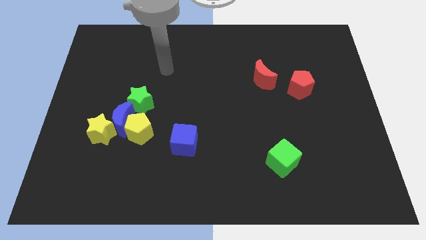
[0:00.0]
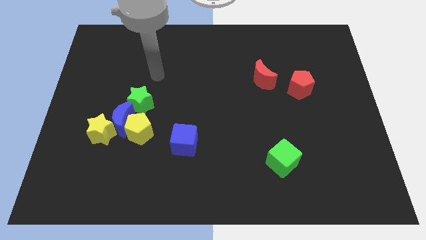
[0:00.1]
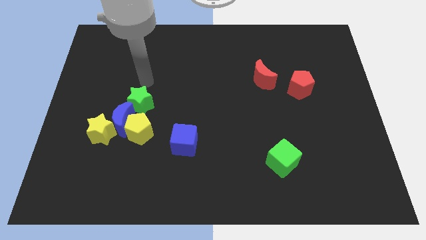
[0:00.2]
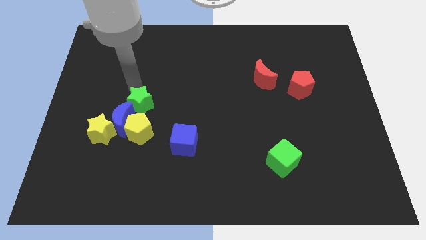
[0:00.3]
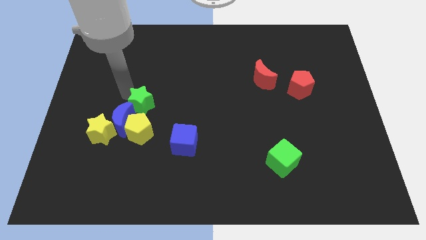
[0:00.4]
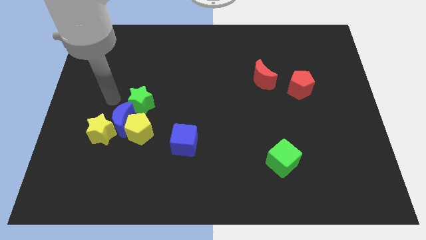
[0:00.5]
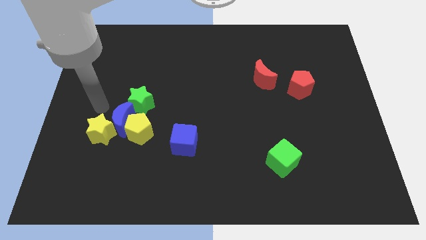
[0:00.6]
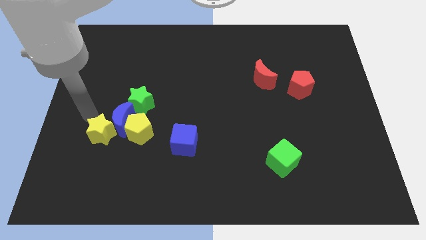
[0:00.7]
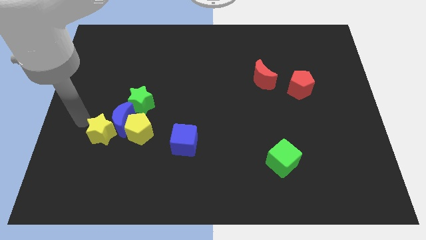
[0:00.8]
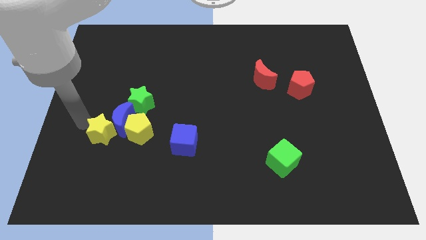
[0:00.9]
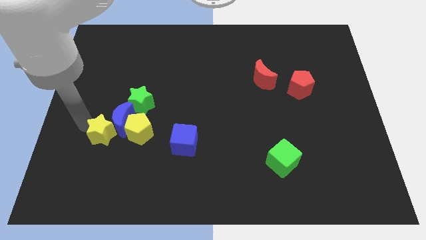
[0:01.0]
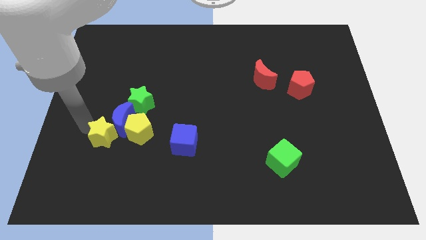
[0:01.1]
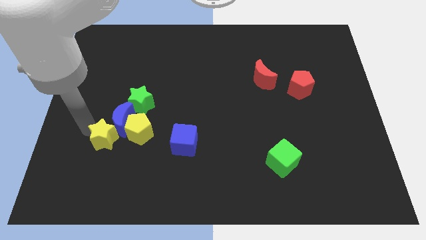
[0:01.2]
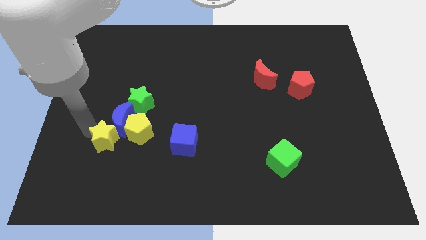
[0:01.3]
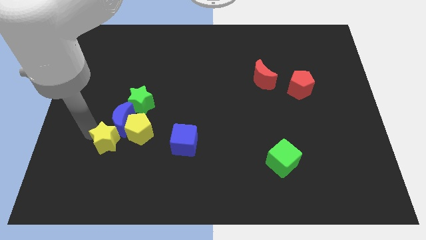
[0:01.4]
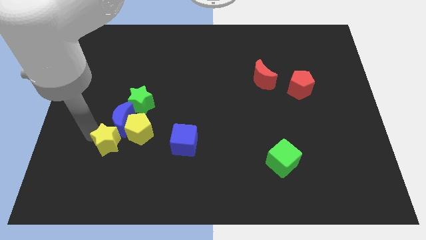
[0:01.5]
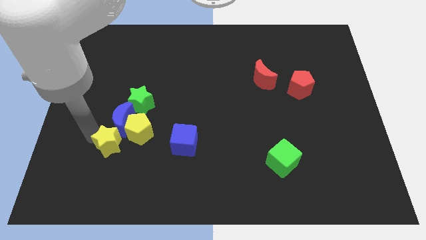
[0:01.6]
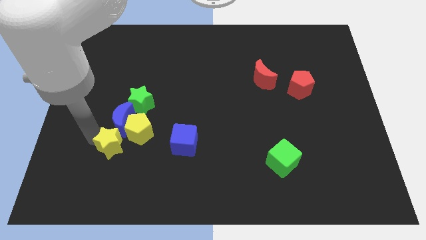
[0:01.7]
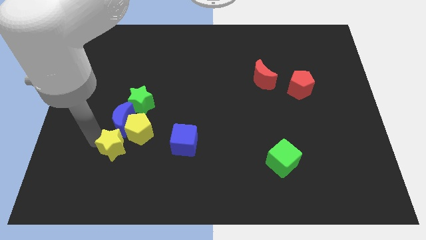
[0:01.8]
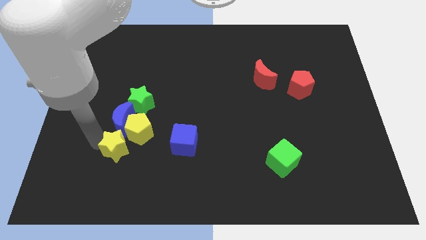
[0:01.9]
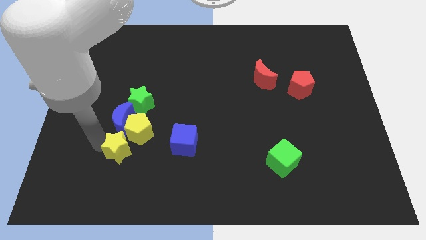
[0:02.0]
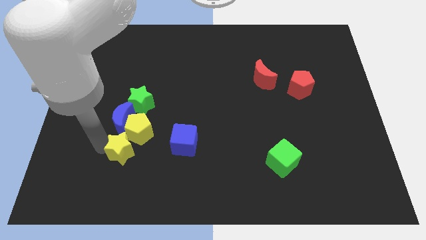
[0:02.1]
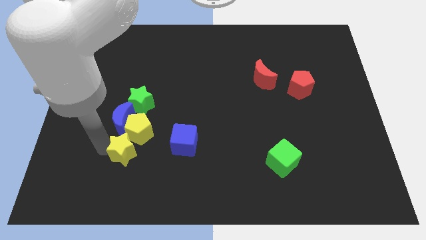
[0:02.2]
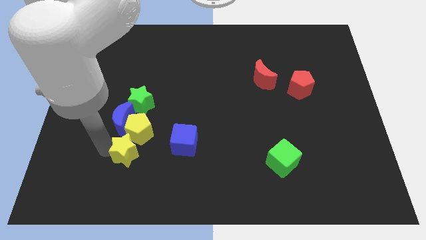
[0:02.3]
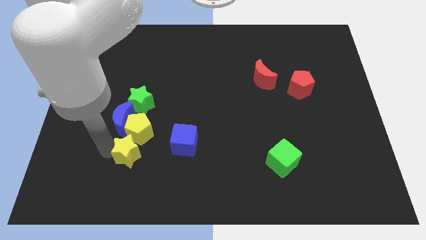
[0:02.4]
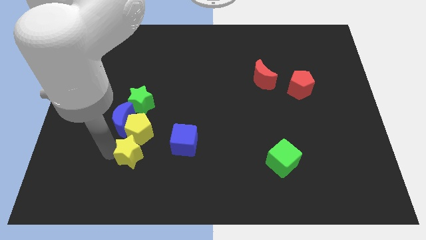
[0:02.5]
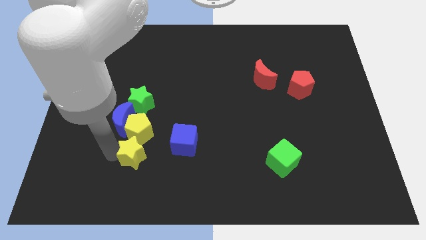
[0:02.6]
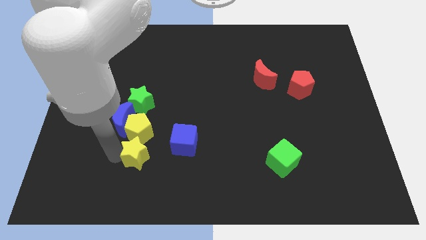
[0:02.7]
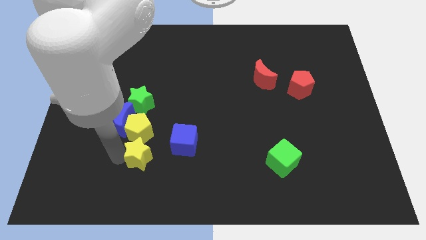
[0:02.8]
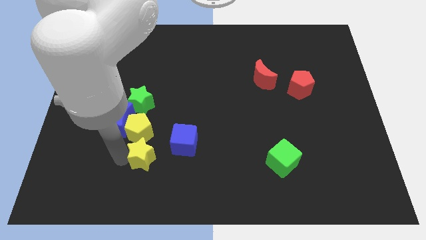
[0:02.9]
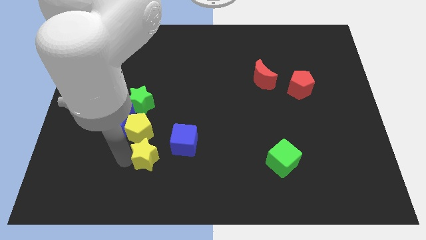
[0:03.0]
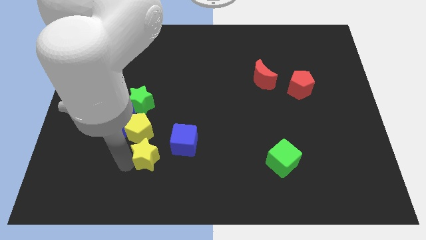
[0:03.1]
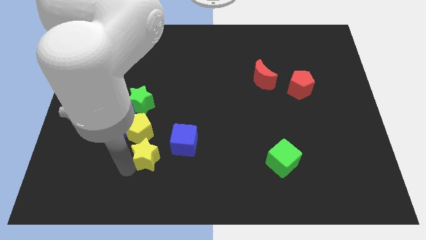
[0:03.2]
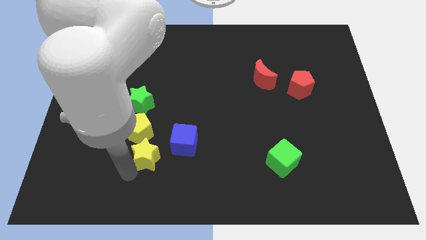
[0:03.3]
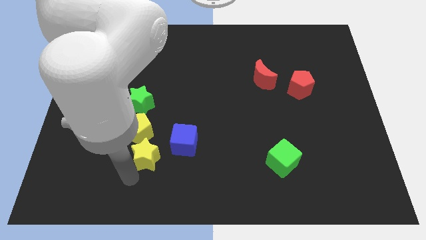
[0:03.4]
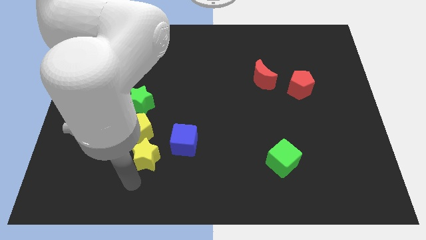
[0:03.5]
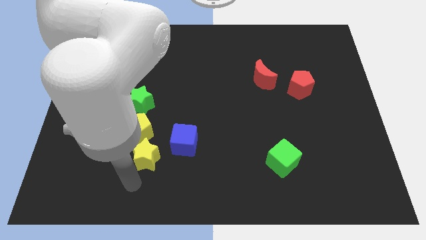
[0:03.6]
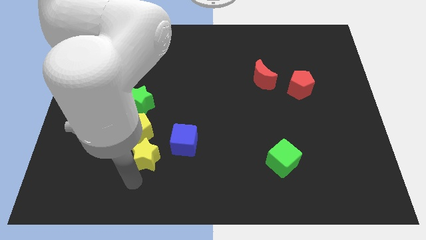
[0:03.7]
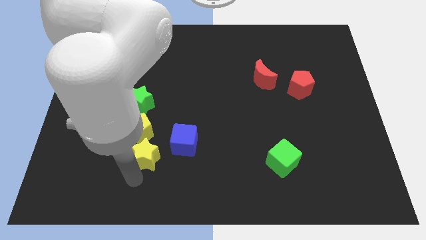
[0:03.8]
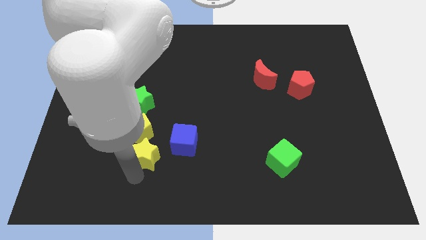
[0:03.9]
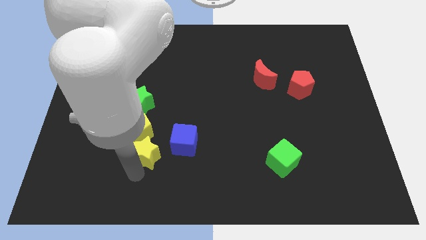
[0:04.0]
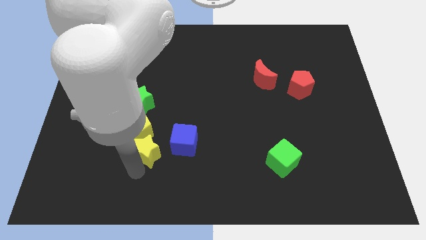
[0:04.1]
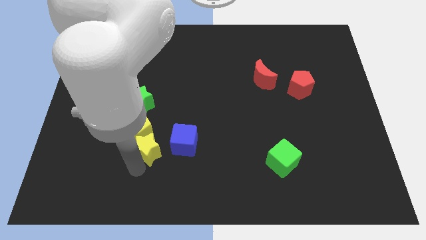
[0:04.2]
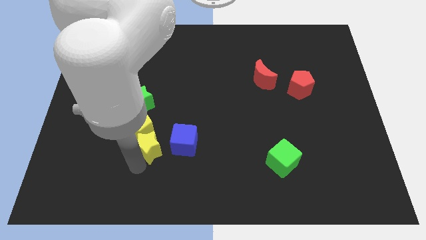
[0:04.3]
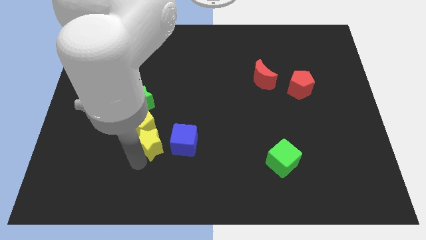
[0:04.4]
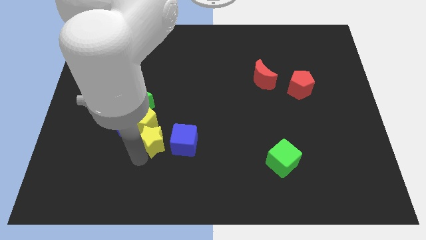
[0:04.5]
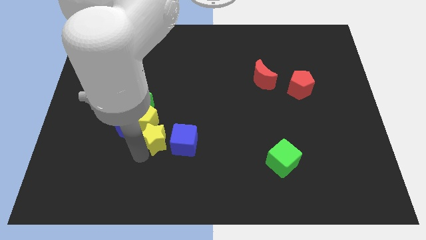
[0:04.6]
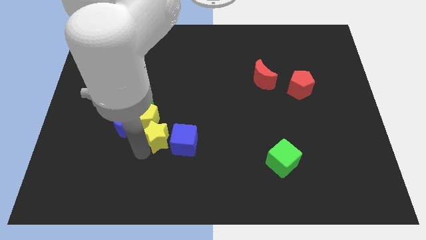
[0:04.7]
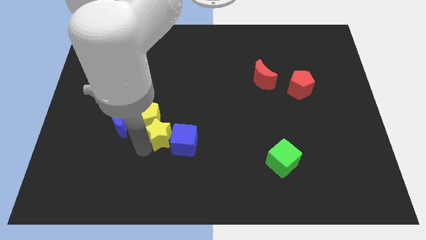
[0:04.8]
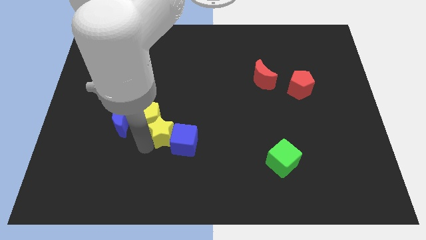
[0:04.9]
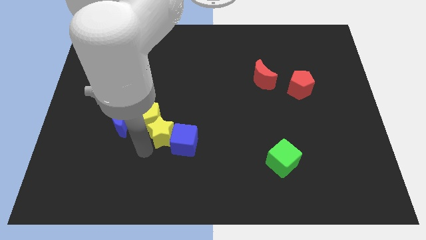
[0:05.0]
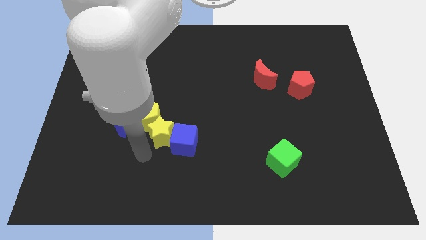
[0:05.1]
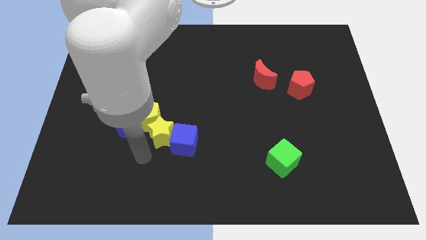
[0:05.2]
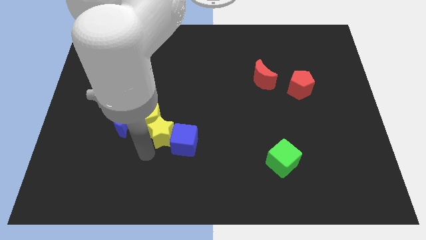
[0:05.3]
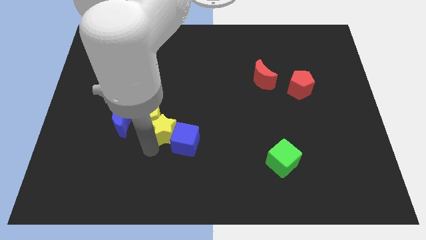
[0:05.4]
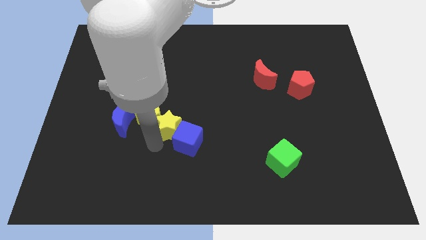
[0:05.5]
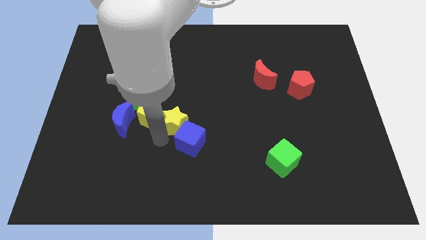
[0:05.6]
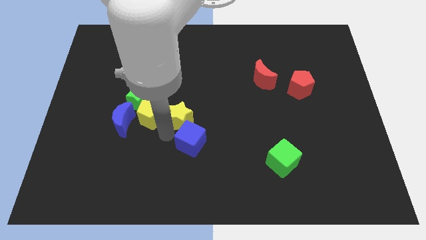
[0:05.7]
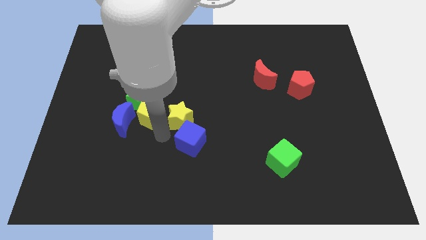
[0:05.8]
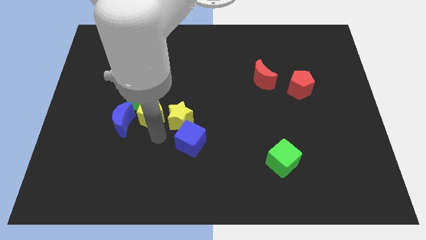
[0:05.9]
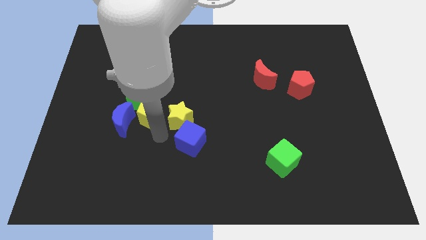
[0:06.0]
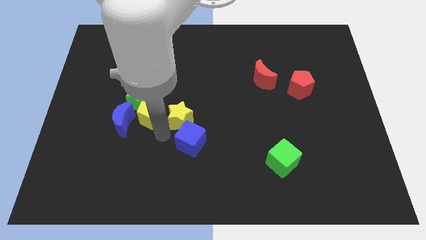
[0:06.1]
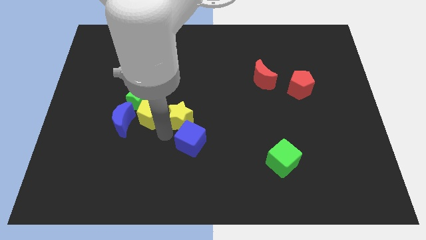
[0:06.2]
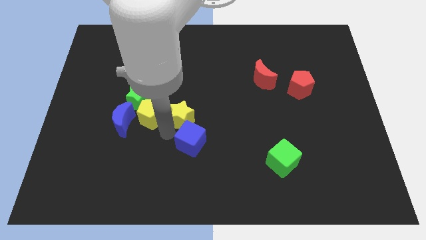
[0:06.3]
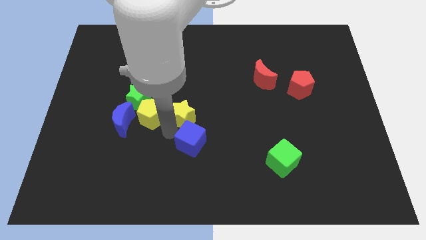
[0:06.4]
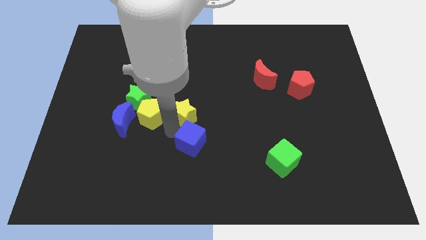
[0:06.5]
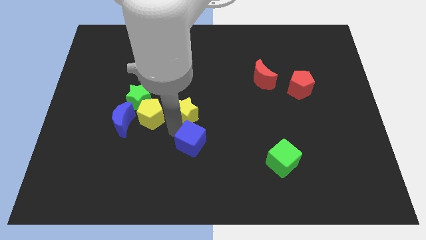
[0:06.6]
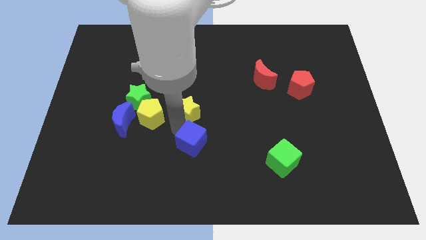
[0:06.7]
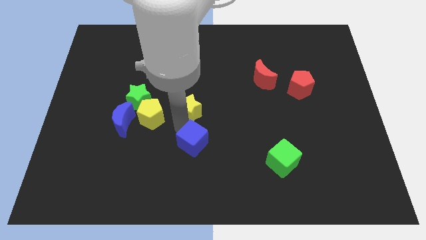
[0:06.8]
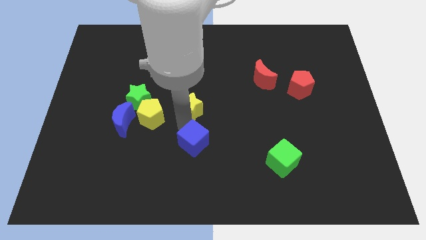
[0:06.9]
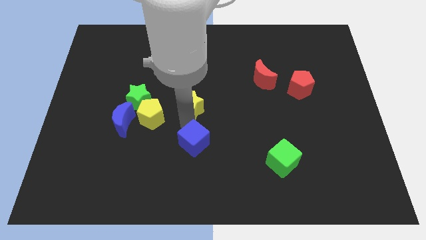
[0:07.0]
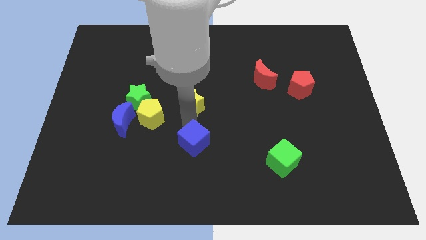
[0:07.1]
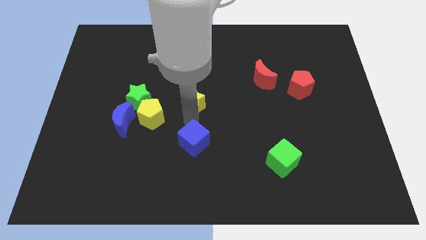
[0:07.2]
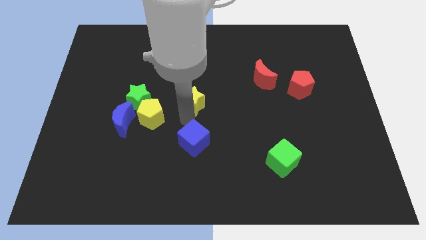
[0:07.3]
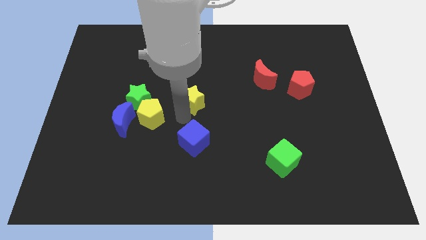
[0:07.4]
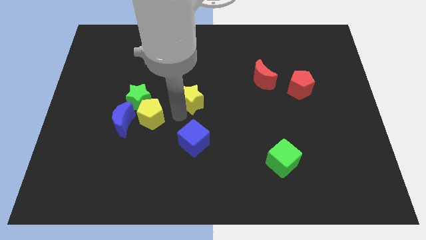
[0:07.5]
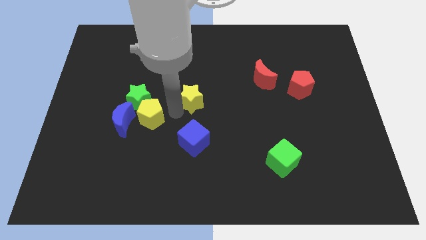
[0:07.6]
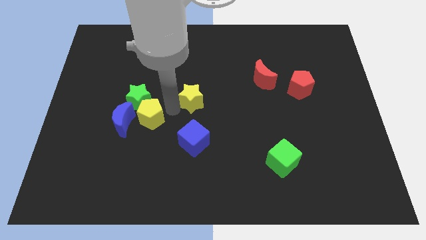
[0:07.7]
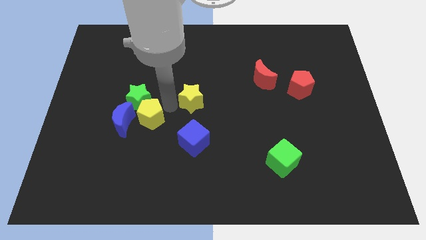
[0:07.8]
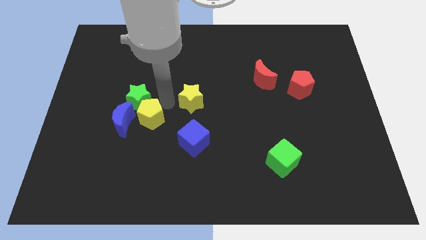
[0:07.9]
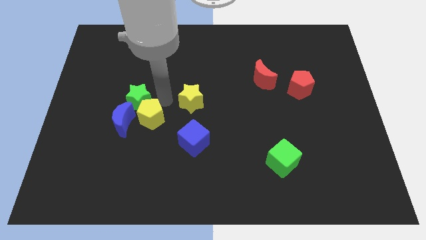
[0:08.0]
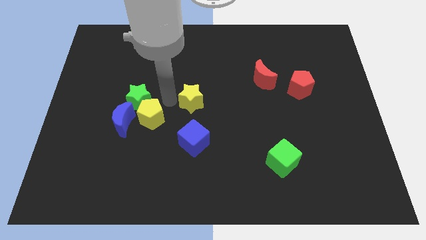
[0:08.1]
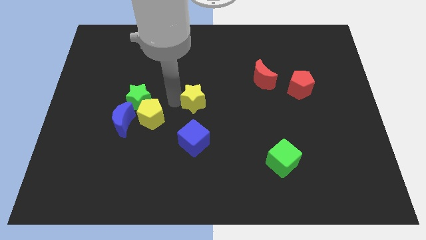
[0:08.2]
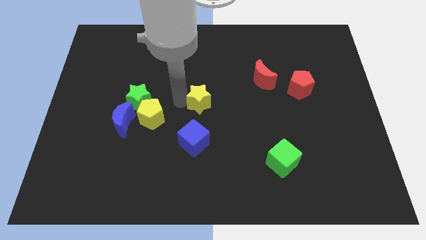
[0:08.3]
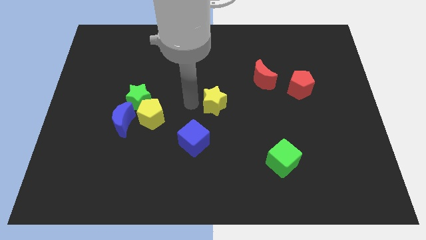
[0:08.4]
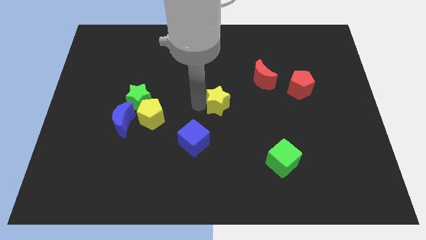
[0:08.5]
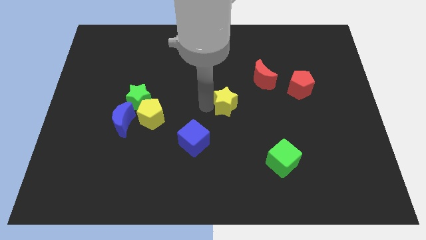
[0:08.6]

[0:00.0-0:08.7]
push the yellow star diagonally down and to the left of the red moon
